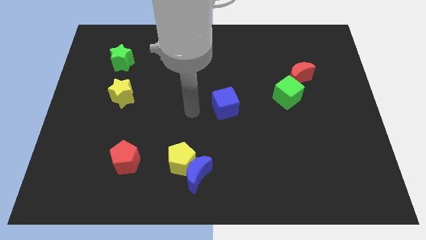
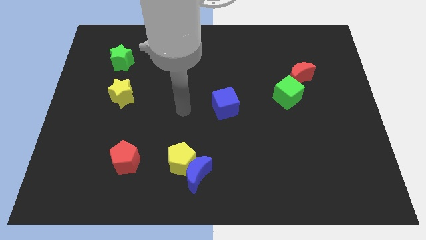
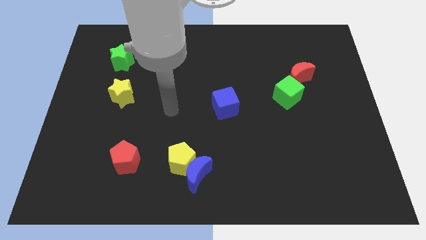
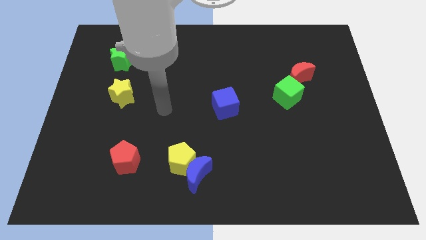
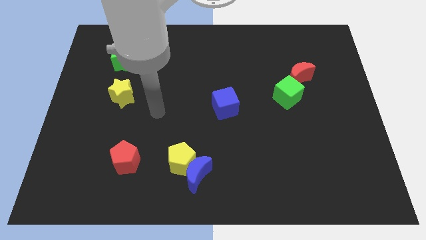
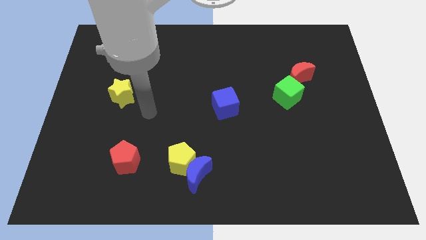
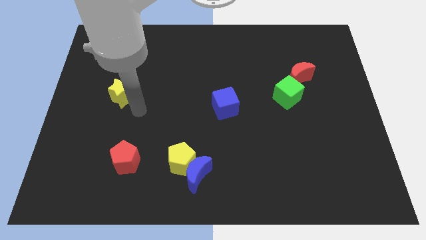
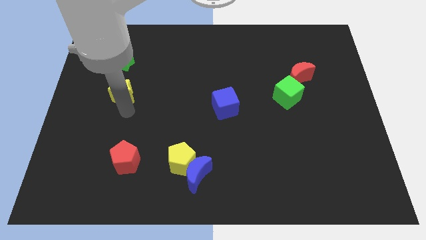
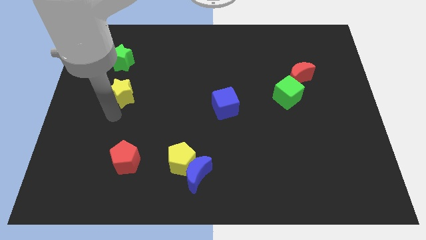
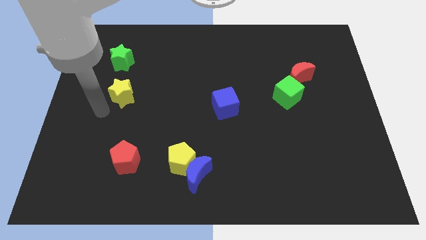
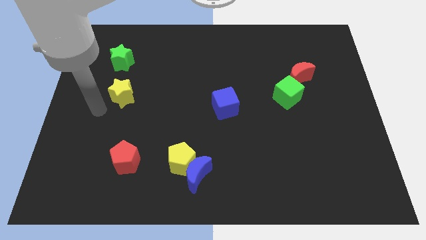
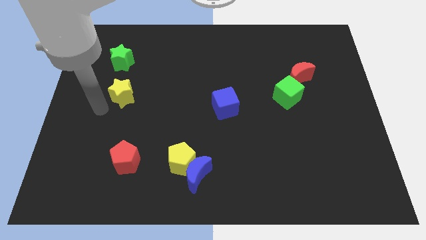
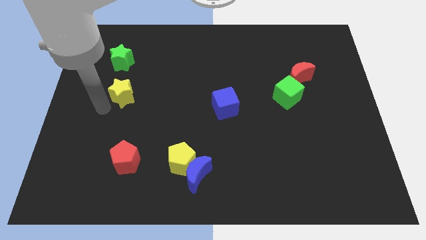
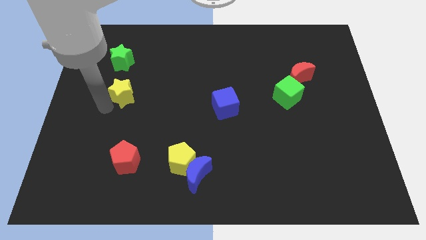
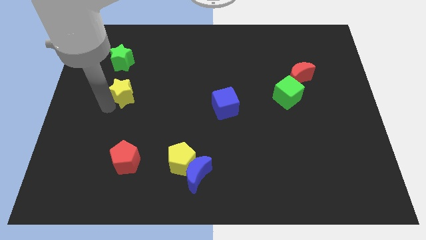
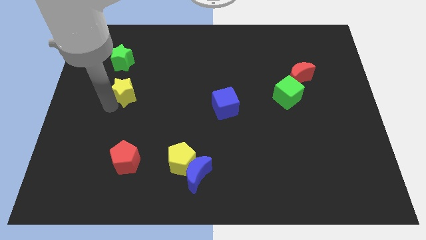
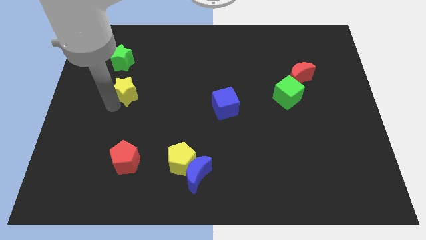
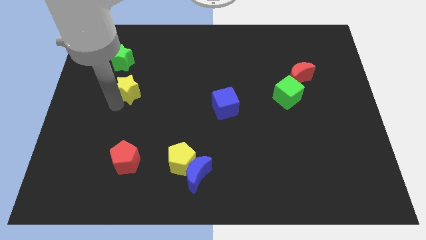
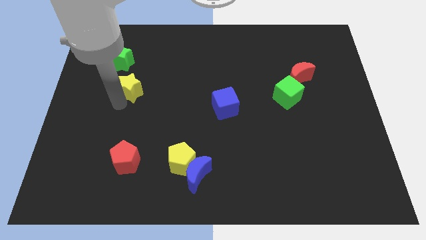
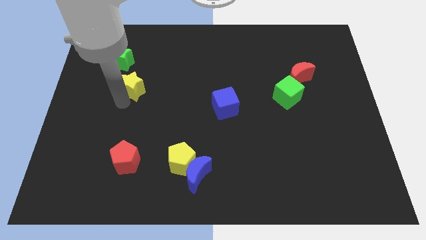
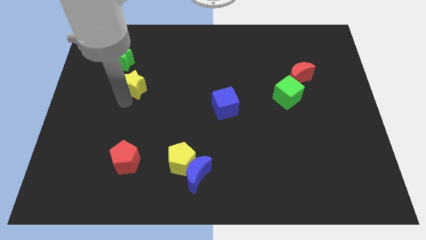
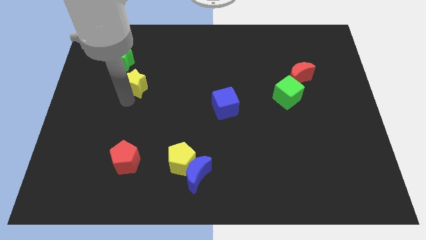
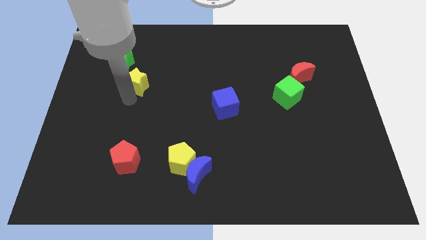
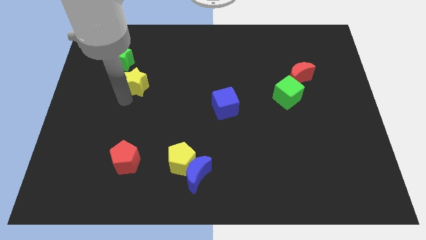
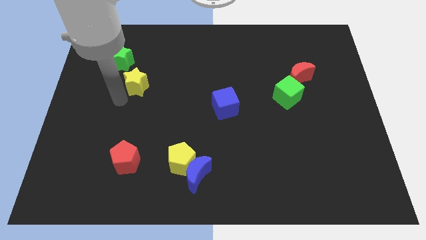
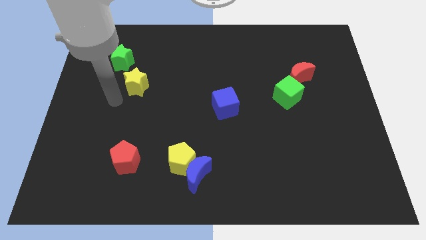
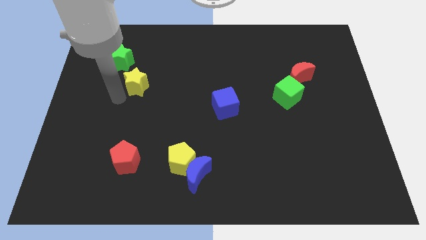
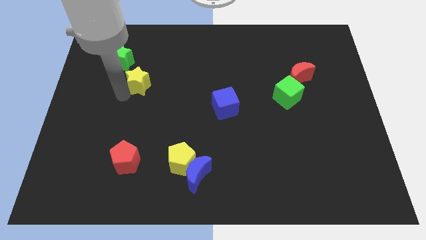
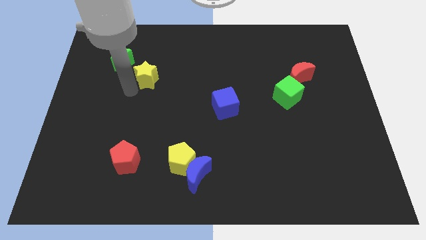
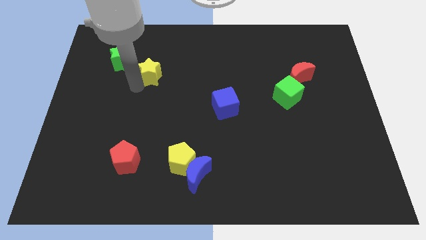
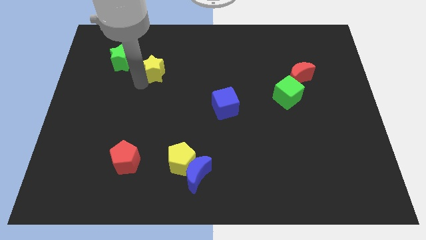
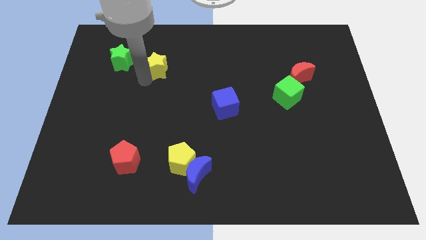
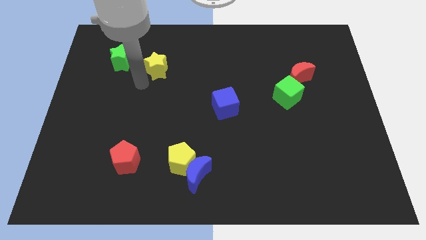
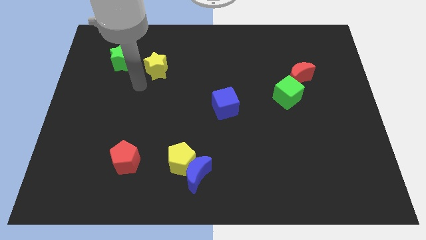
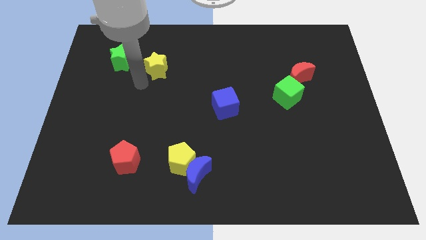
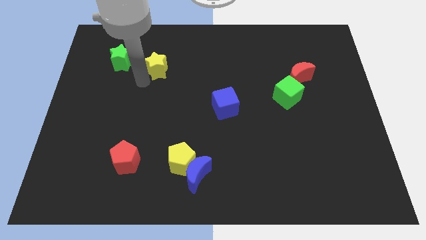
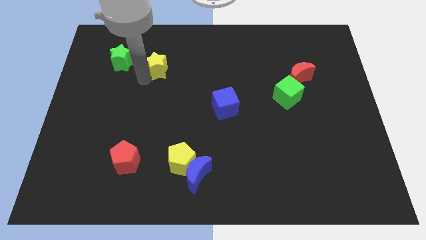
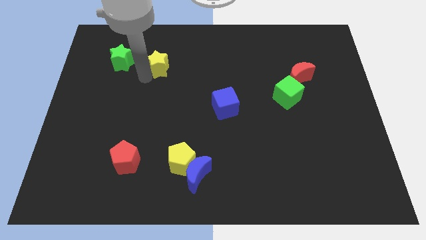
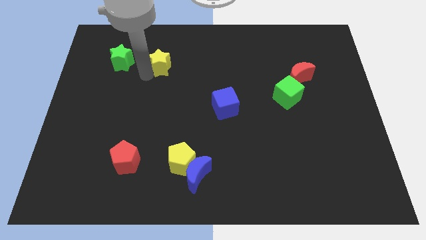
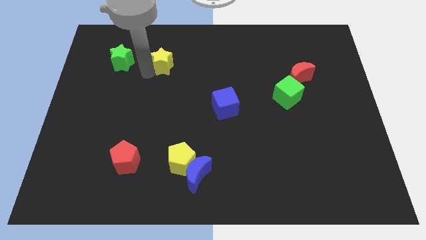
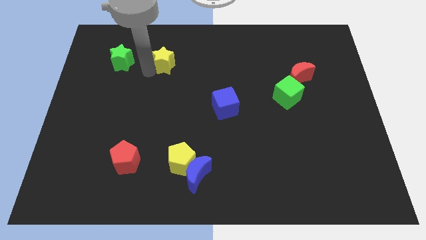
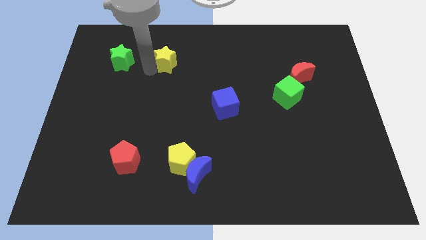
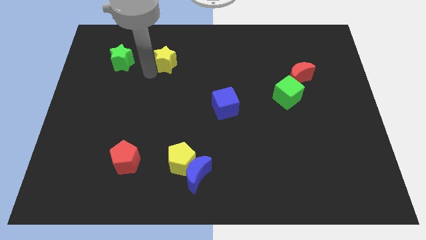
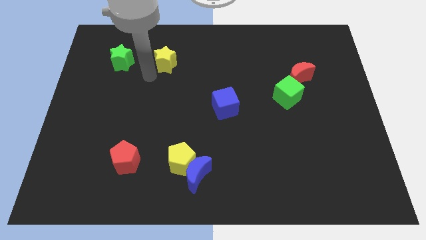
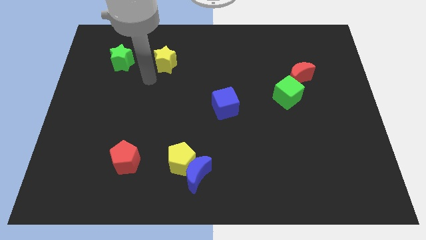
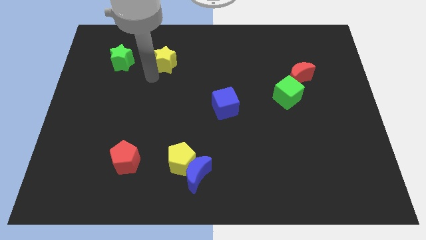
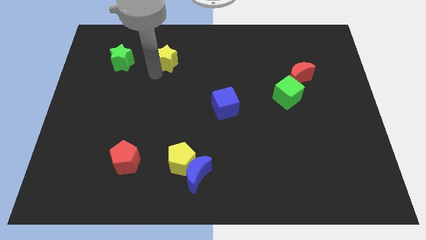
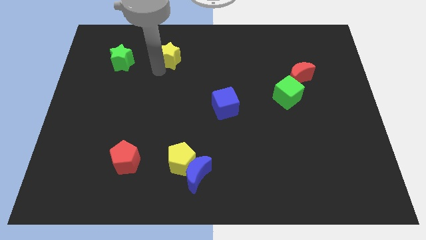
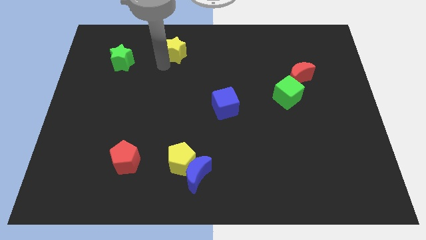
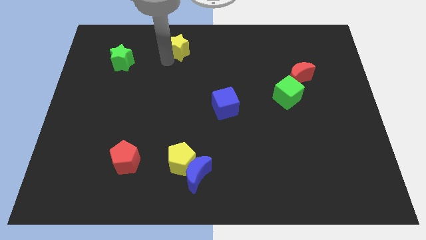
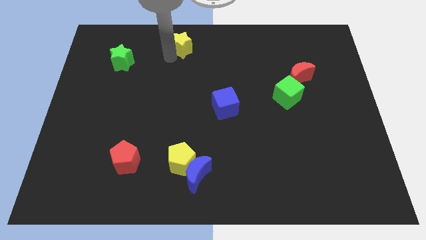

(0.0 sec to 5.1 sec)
put the yellow star to the top side
